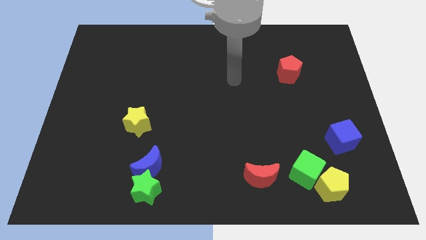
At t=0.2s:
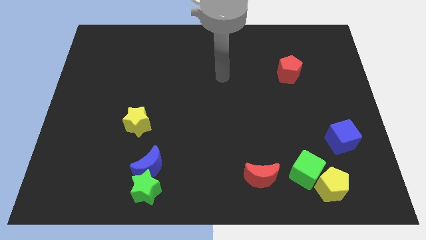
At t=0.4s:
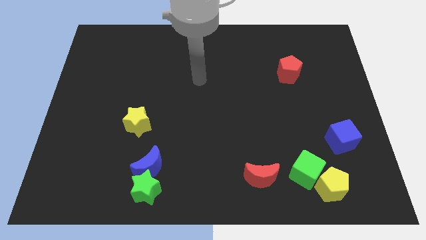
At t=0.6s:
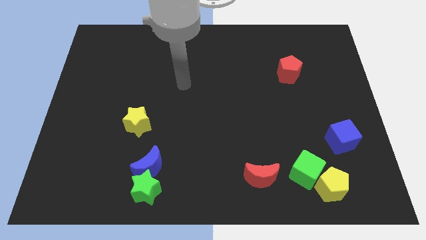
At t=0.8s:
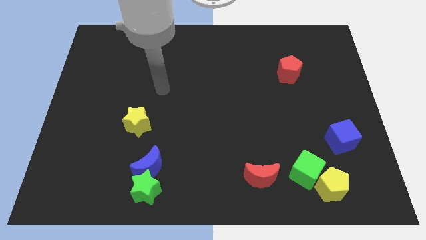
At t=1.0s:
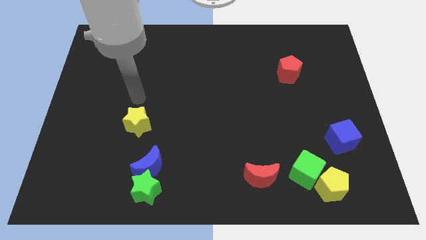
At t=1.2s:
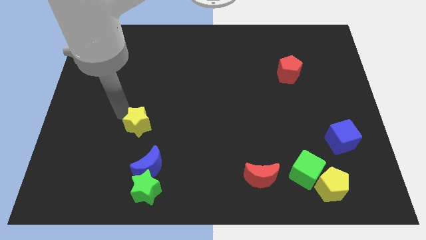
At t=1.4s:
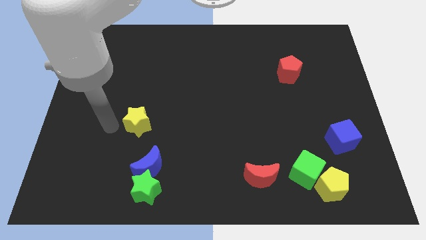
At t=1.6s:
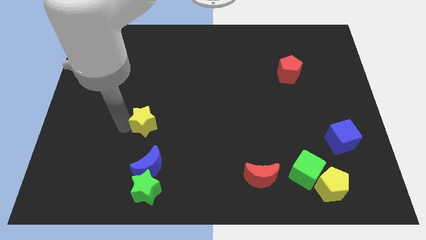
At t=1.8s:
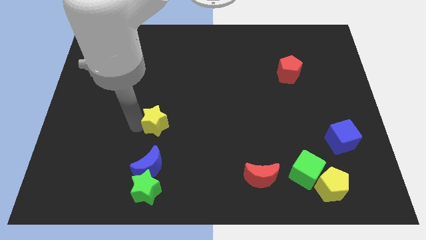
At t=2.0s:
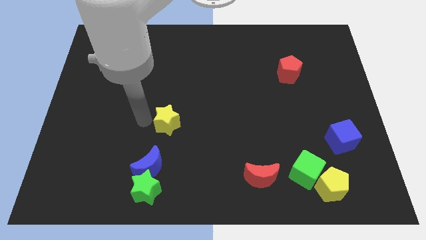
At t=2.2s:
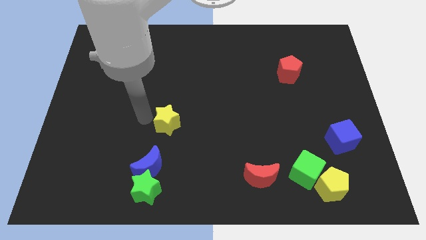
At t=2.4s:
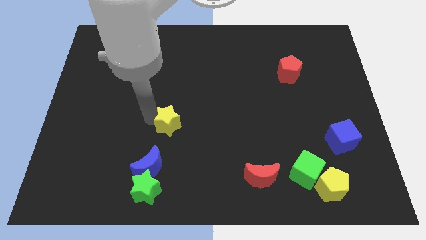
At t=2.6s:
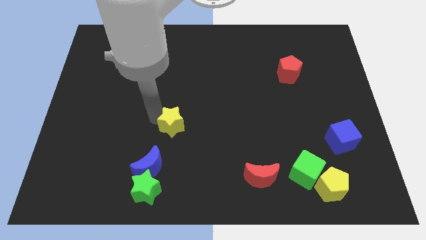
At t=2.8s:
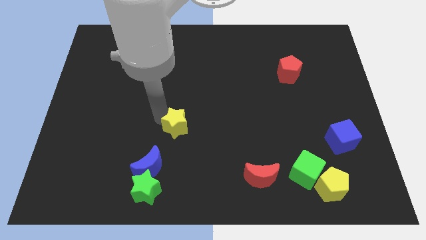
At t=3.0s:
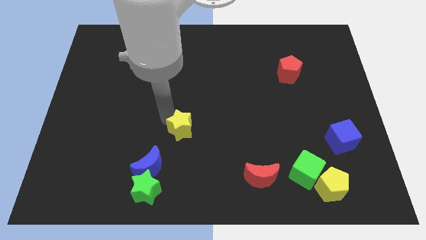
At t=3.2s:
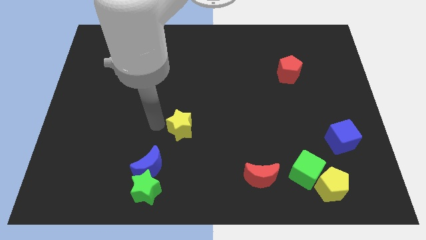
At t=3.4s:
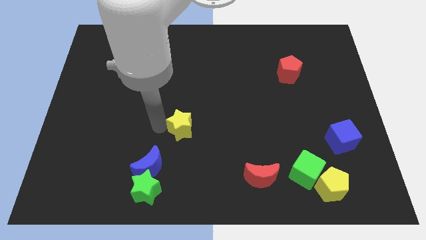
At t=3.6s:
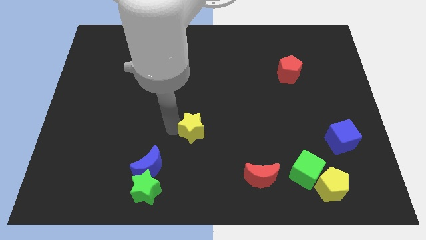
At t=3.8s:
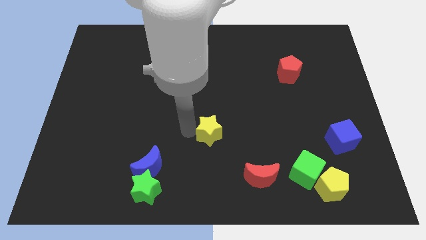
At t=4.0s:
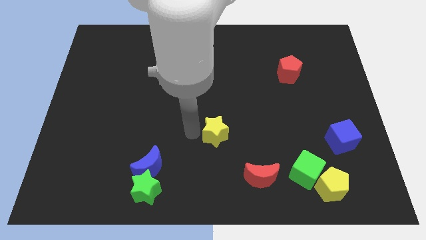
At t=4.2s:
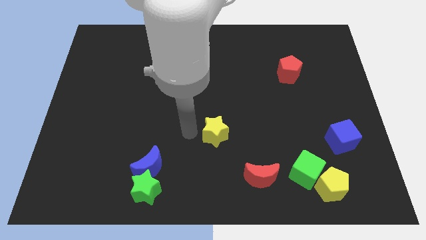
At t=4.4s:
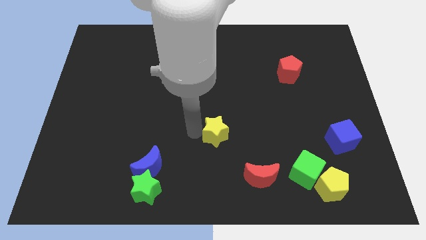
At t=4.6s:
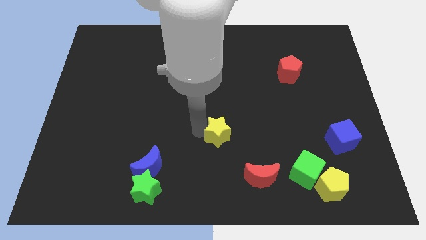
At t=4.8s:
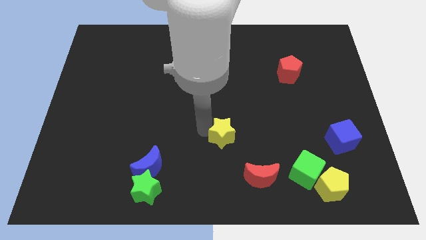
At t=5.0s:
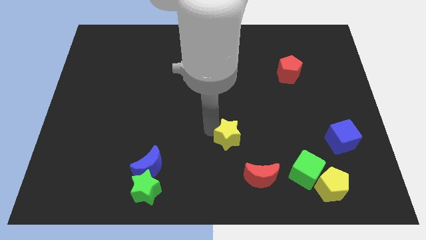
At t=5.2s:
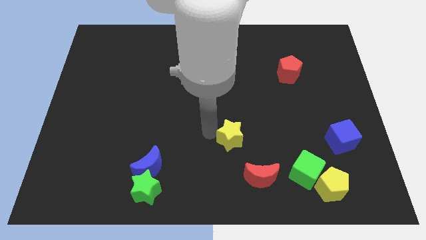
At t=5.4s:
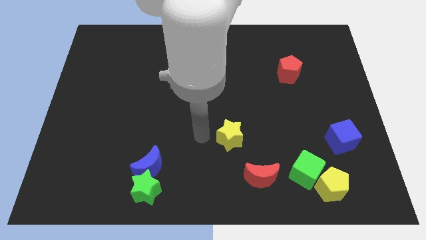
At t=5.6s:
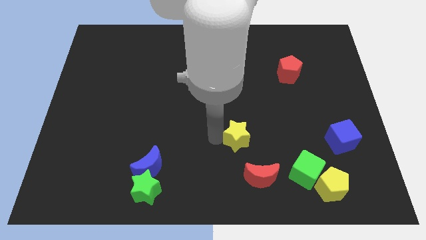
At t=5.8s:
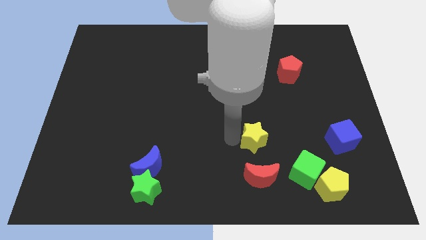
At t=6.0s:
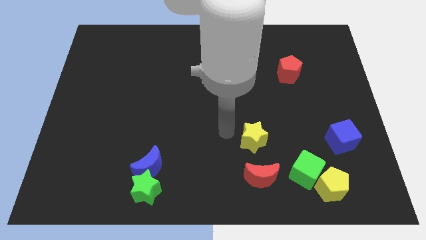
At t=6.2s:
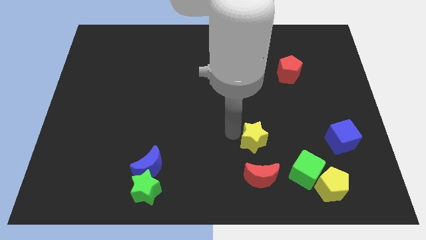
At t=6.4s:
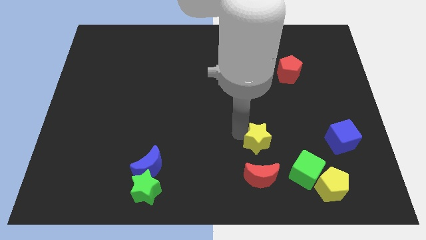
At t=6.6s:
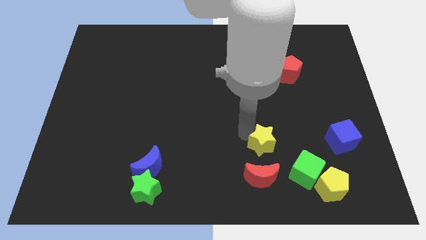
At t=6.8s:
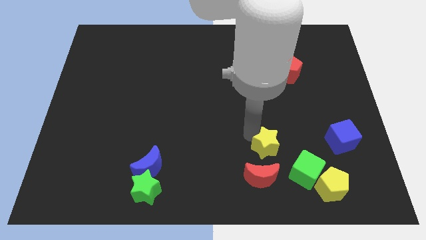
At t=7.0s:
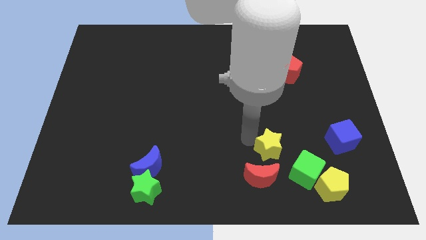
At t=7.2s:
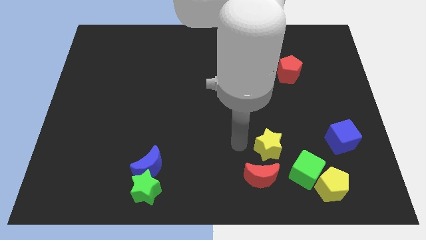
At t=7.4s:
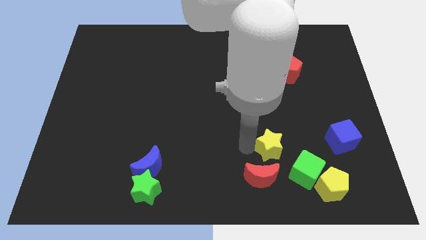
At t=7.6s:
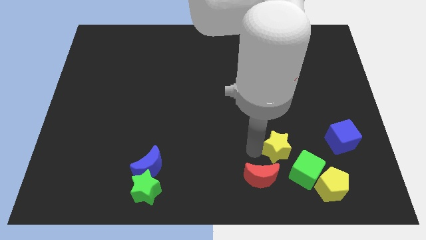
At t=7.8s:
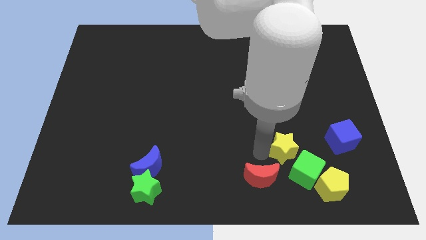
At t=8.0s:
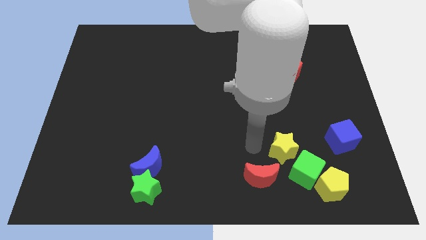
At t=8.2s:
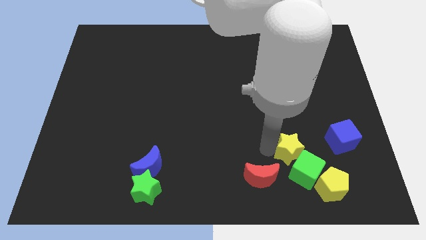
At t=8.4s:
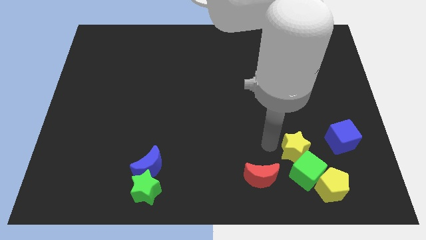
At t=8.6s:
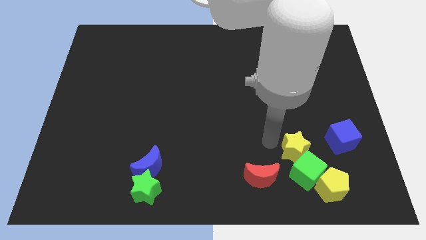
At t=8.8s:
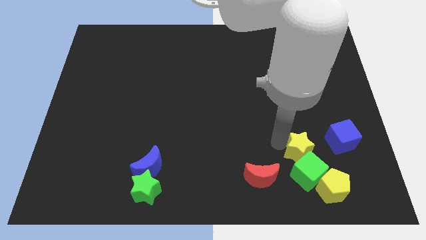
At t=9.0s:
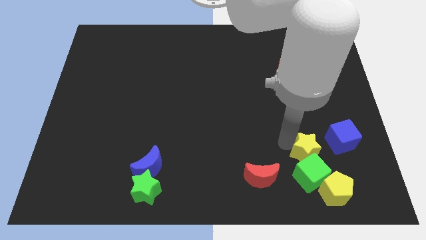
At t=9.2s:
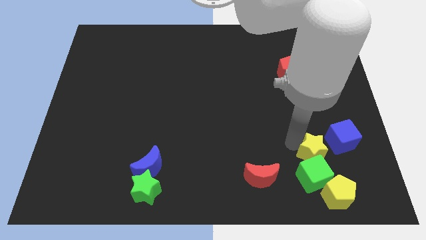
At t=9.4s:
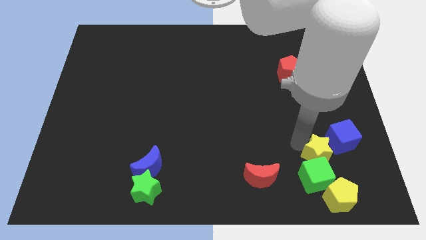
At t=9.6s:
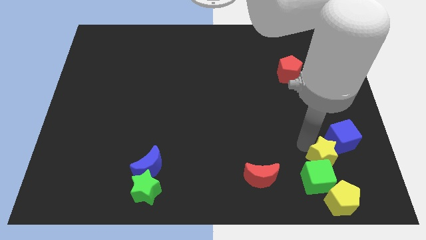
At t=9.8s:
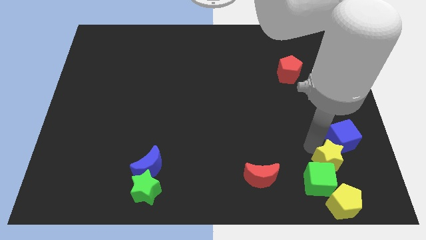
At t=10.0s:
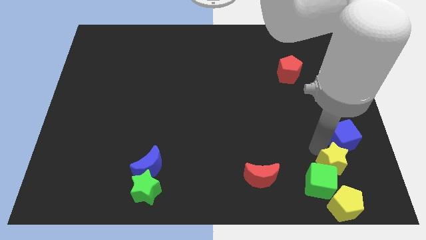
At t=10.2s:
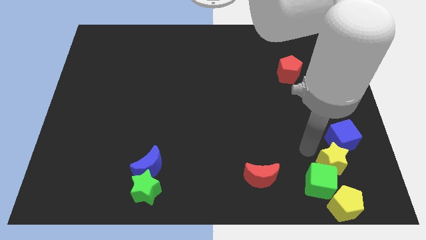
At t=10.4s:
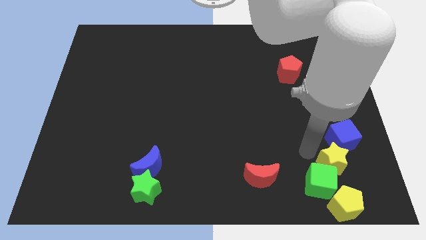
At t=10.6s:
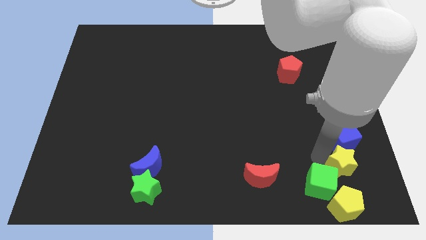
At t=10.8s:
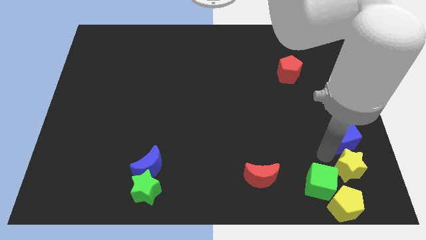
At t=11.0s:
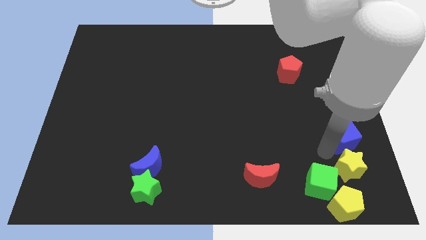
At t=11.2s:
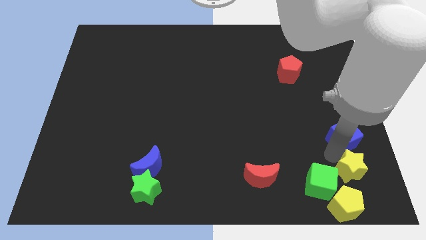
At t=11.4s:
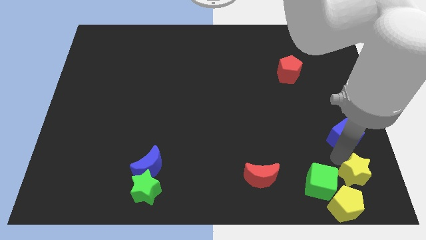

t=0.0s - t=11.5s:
move the yellow star to the bottom right of the board
